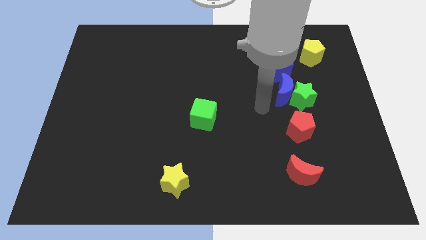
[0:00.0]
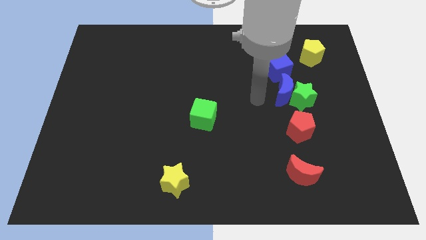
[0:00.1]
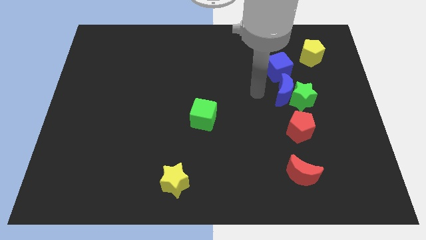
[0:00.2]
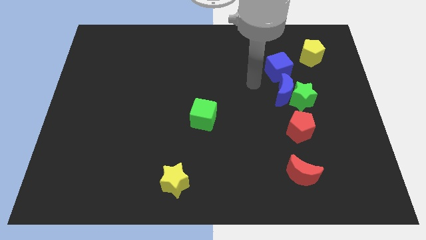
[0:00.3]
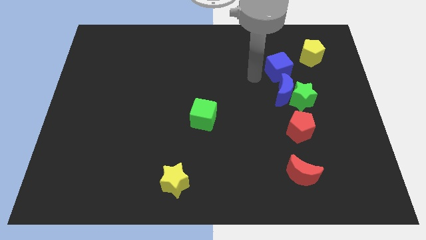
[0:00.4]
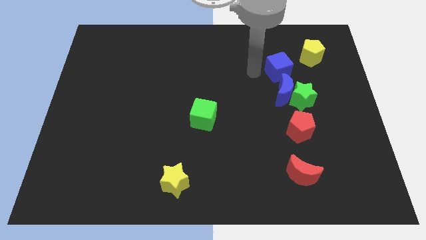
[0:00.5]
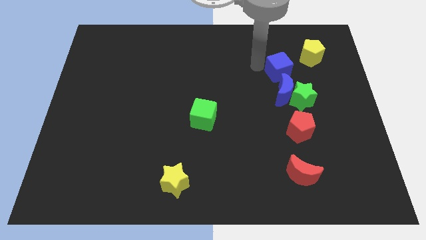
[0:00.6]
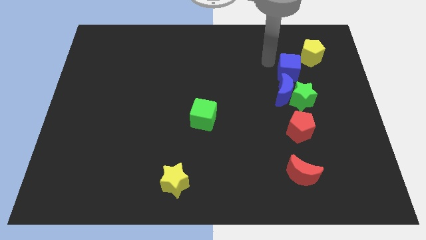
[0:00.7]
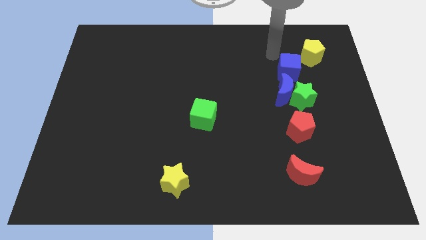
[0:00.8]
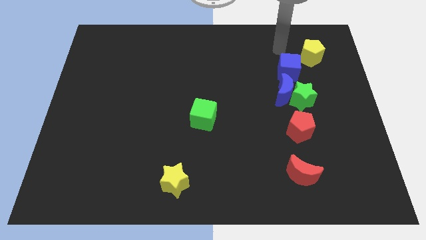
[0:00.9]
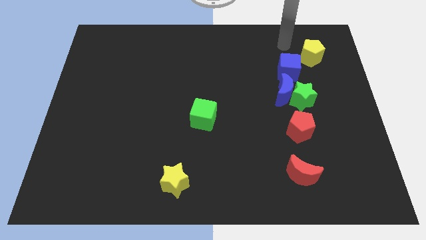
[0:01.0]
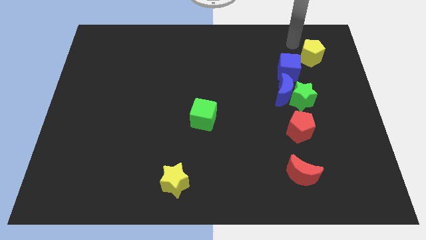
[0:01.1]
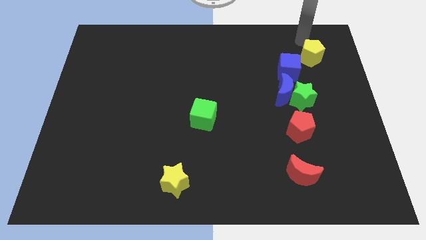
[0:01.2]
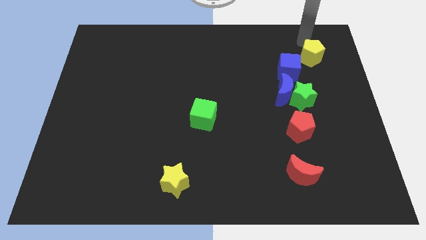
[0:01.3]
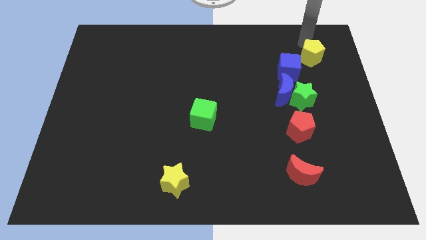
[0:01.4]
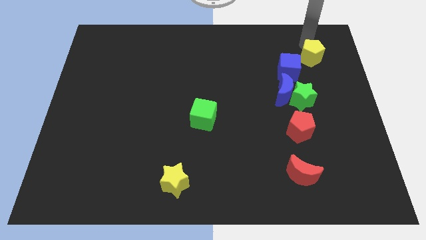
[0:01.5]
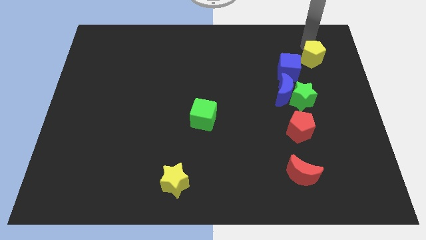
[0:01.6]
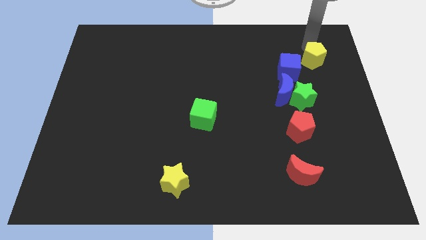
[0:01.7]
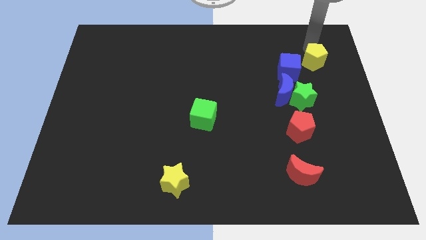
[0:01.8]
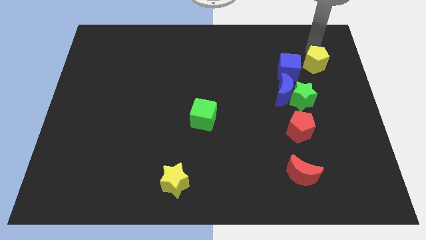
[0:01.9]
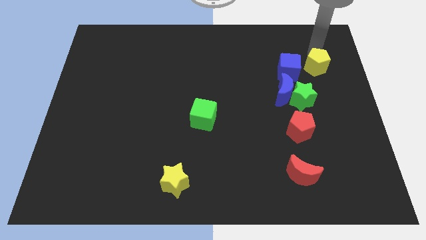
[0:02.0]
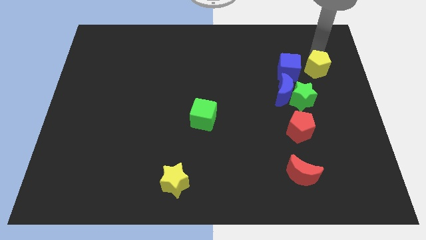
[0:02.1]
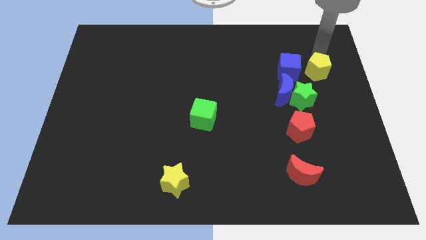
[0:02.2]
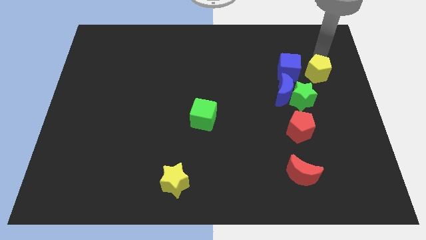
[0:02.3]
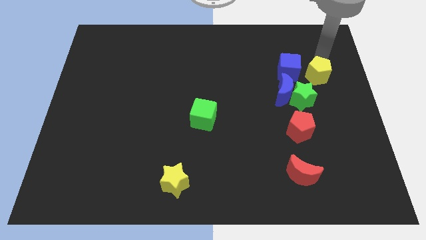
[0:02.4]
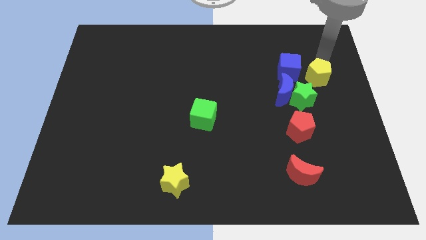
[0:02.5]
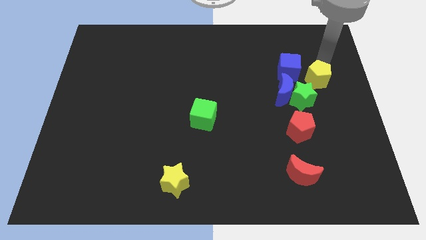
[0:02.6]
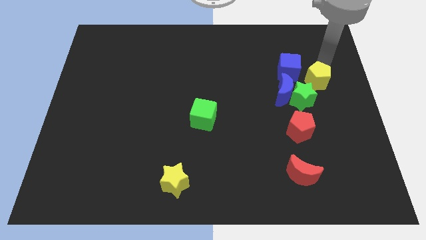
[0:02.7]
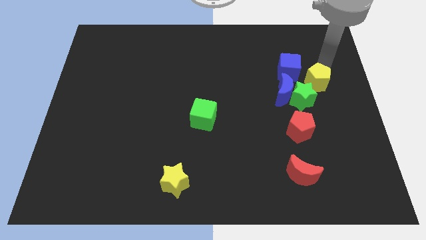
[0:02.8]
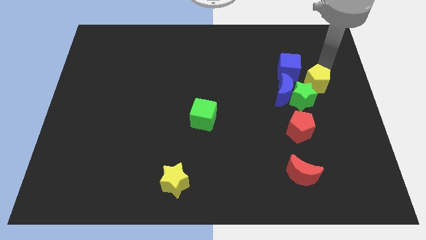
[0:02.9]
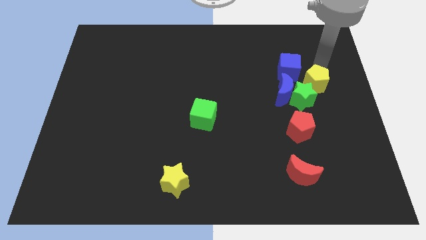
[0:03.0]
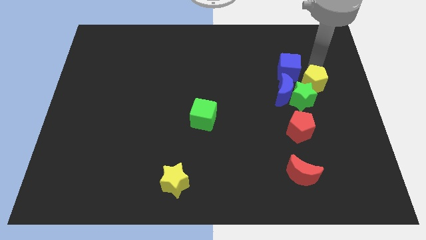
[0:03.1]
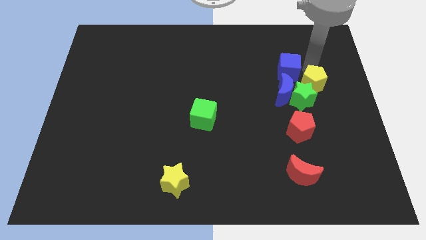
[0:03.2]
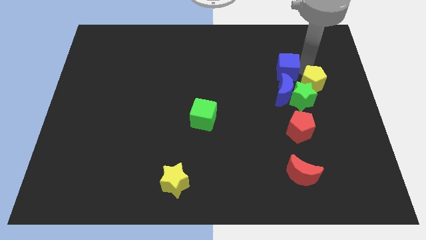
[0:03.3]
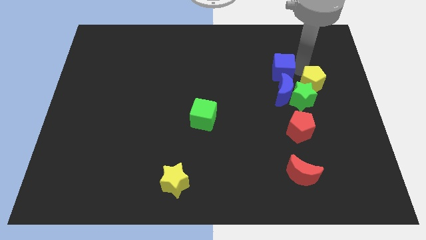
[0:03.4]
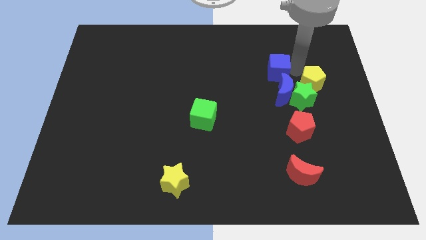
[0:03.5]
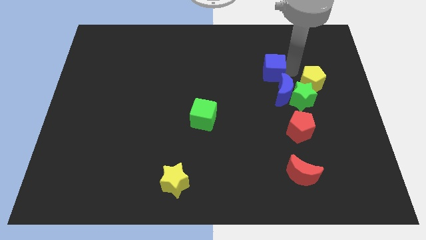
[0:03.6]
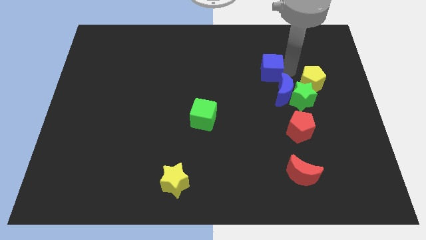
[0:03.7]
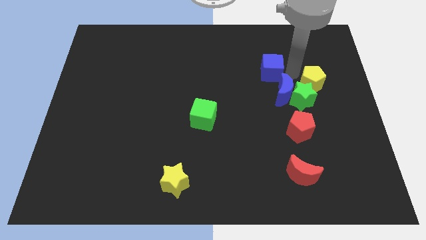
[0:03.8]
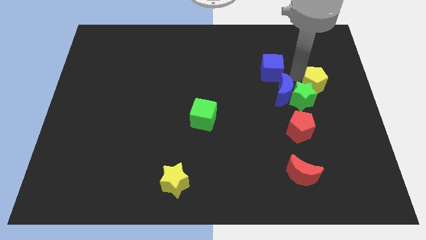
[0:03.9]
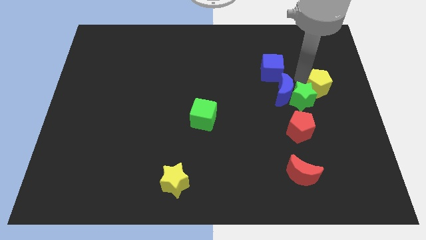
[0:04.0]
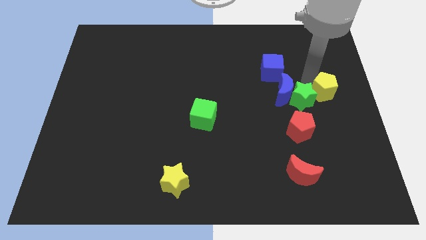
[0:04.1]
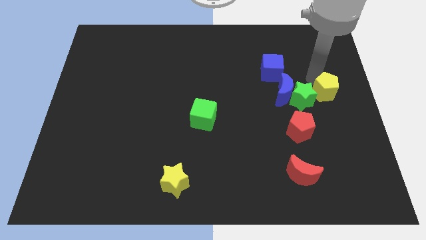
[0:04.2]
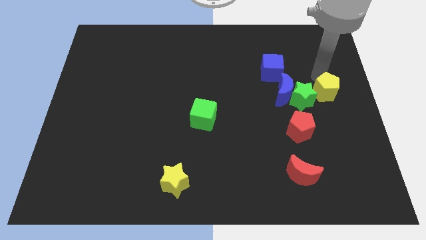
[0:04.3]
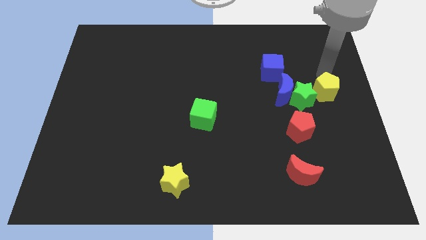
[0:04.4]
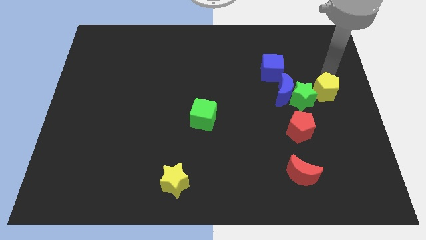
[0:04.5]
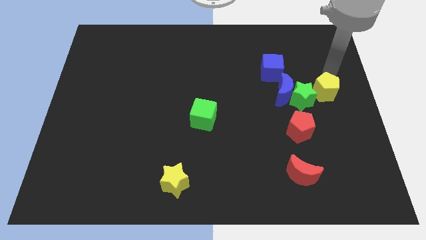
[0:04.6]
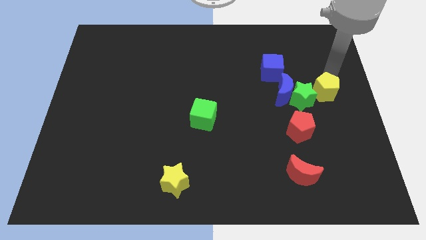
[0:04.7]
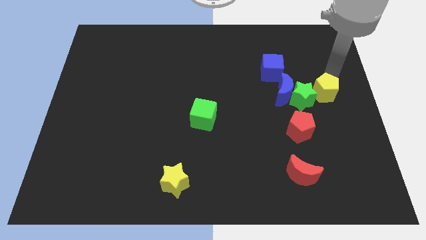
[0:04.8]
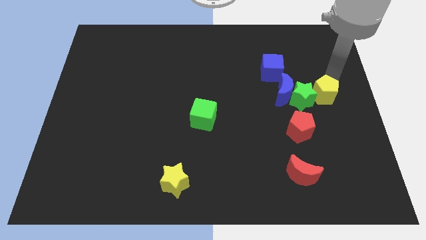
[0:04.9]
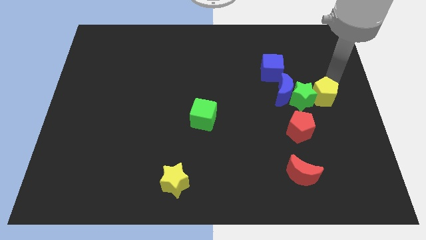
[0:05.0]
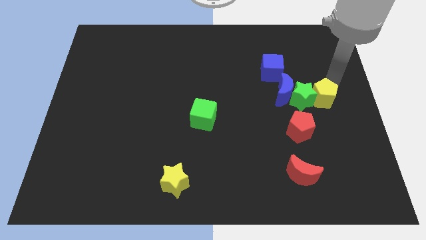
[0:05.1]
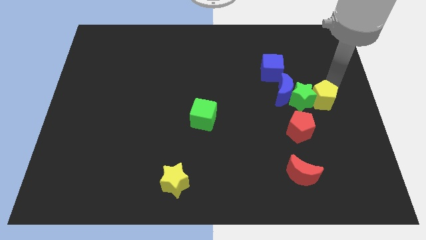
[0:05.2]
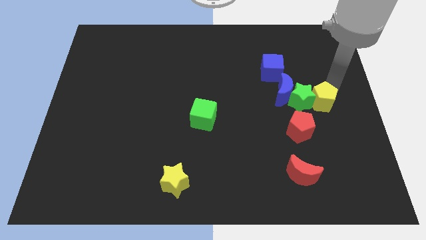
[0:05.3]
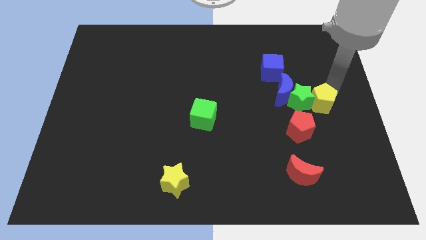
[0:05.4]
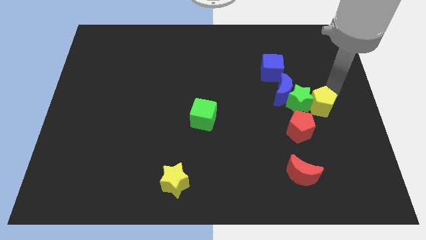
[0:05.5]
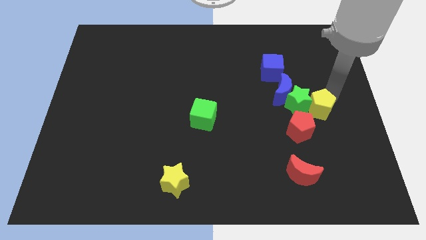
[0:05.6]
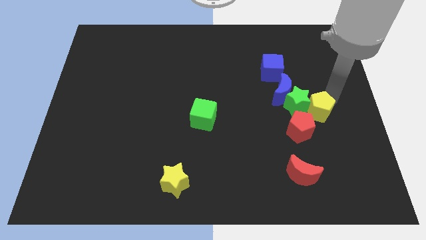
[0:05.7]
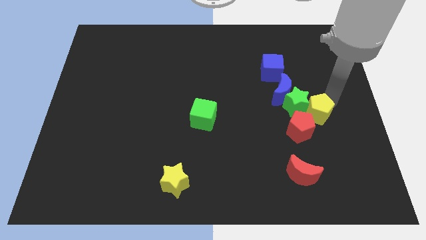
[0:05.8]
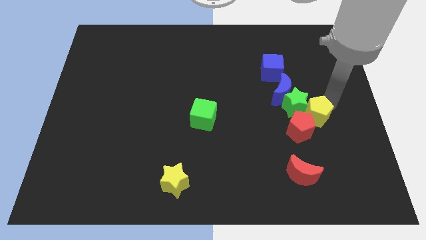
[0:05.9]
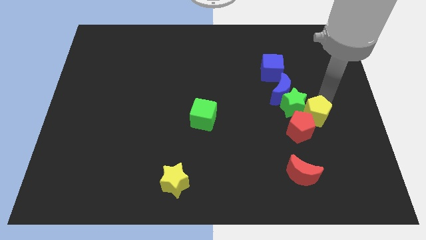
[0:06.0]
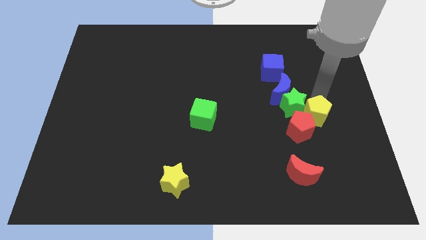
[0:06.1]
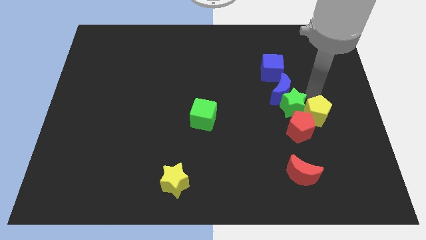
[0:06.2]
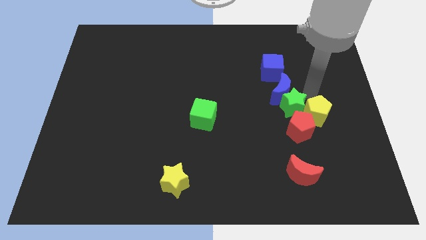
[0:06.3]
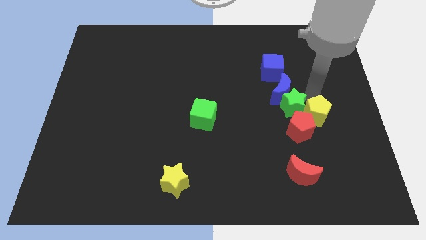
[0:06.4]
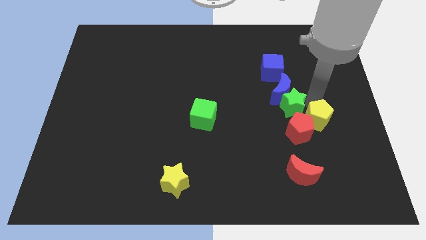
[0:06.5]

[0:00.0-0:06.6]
move the yellow pentagon to the bottom side of the green star
